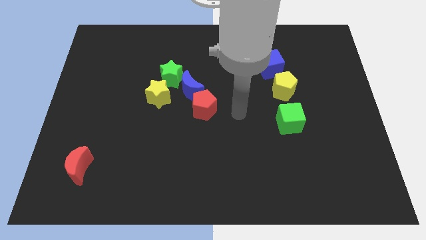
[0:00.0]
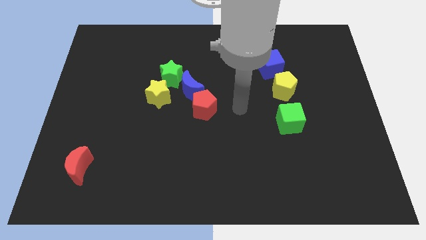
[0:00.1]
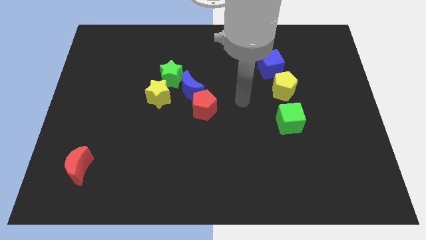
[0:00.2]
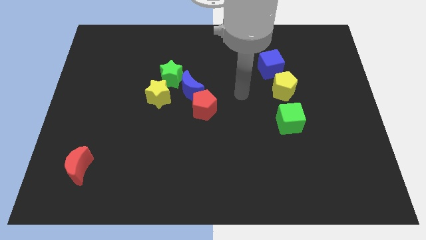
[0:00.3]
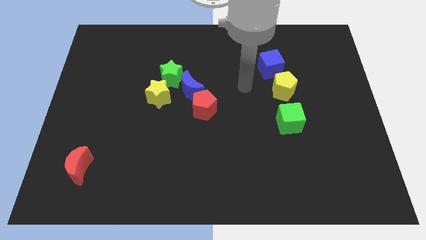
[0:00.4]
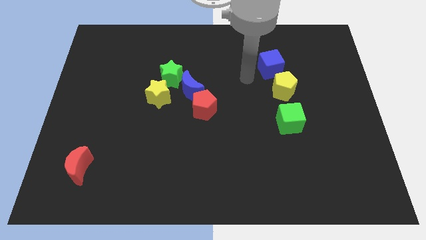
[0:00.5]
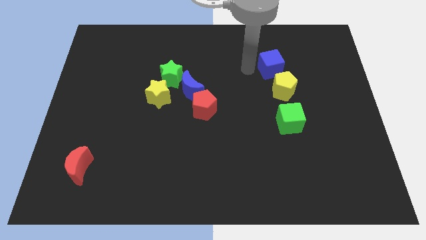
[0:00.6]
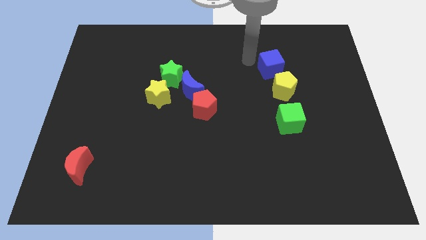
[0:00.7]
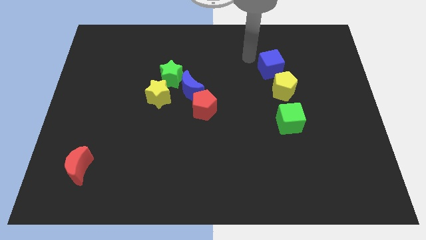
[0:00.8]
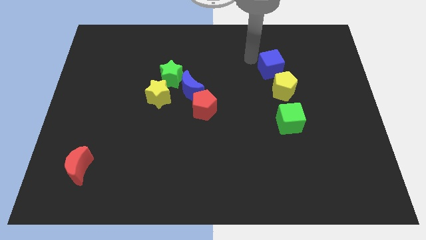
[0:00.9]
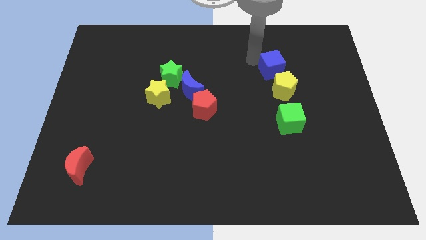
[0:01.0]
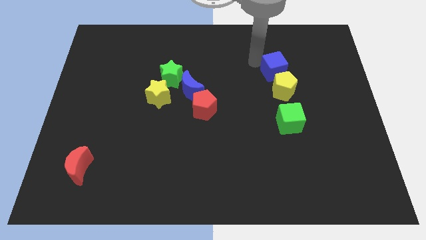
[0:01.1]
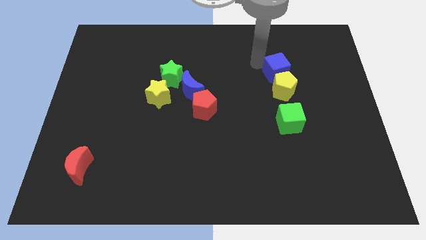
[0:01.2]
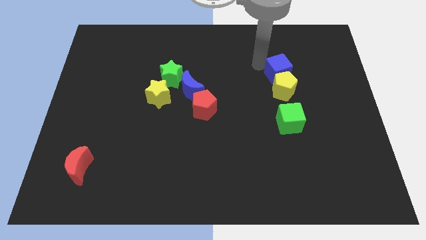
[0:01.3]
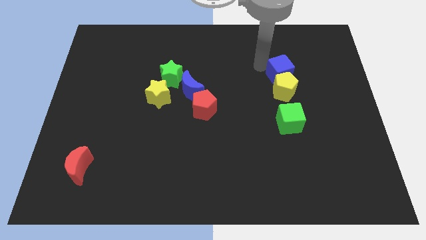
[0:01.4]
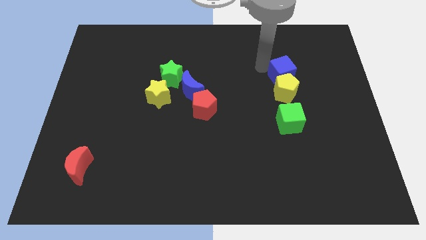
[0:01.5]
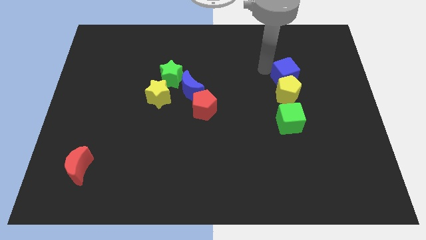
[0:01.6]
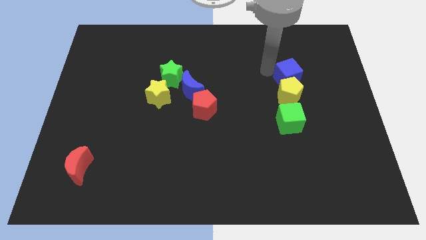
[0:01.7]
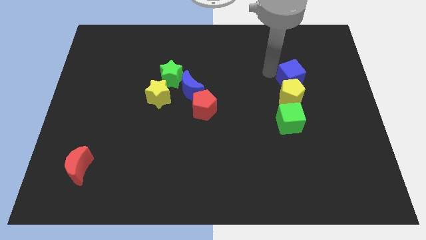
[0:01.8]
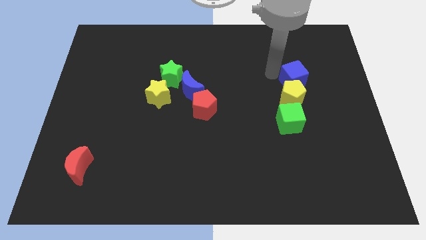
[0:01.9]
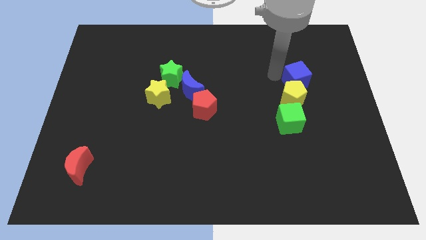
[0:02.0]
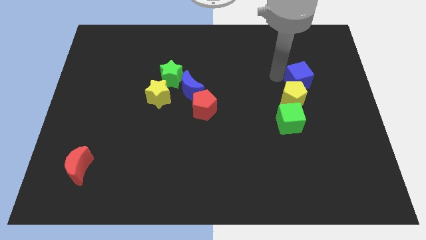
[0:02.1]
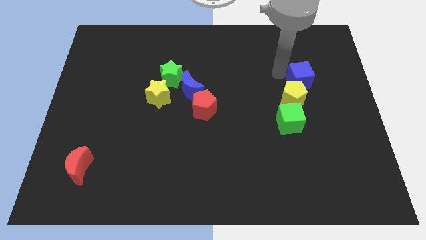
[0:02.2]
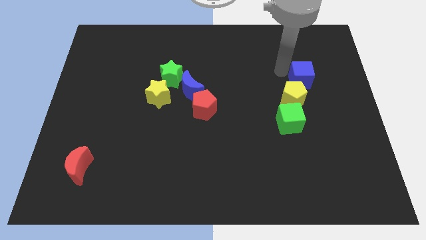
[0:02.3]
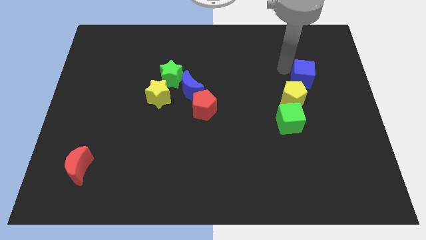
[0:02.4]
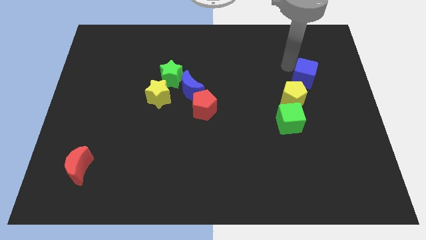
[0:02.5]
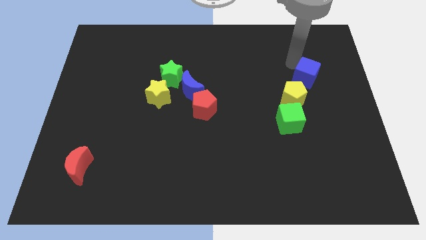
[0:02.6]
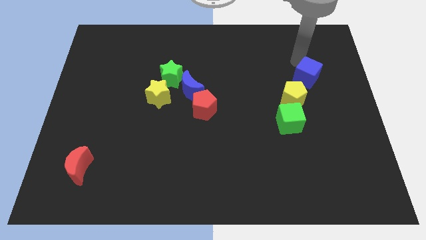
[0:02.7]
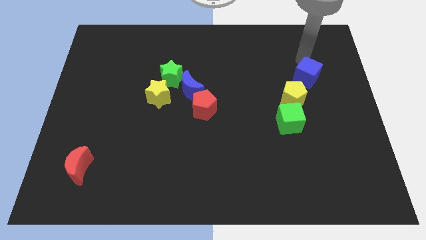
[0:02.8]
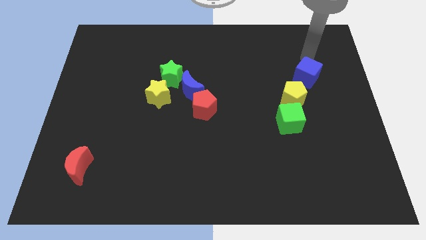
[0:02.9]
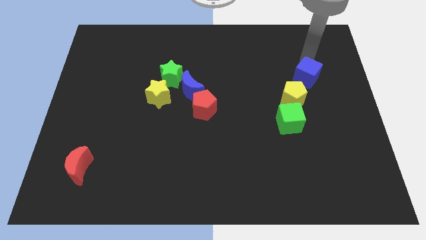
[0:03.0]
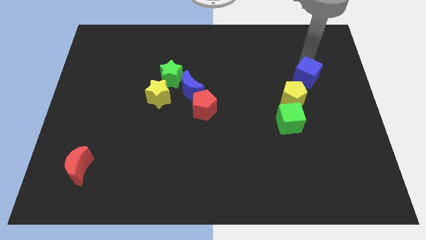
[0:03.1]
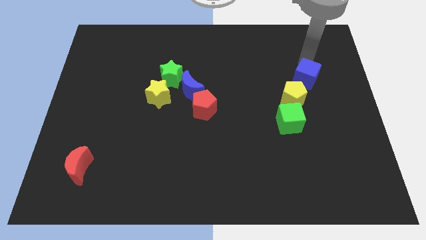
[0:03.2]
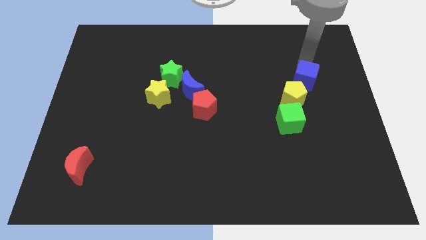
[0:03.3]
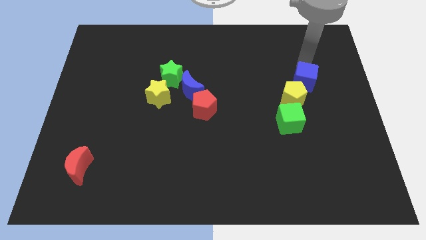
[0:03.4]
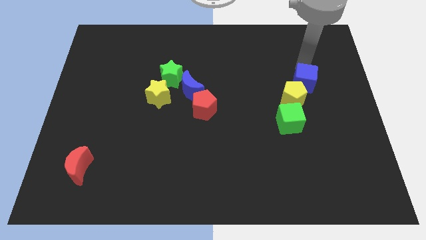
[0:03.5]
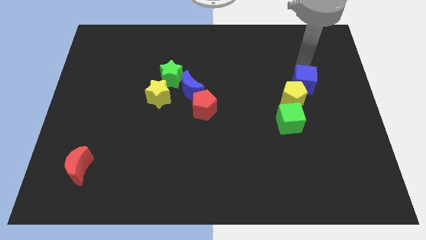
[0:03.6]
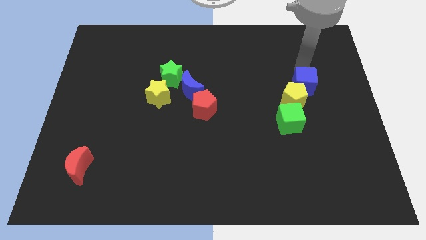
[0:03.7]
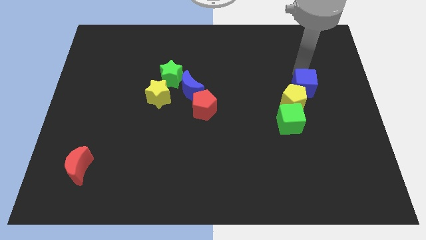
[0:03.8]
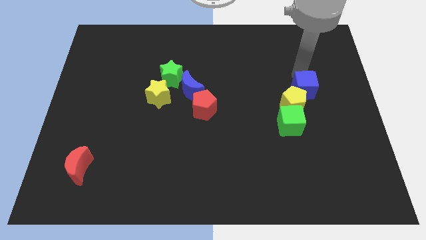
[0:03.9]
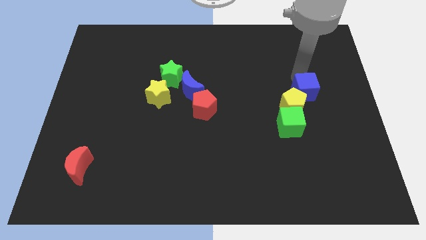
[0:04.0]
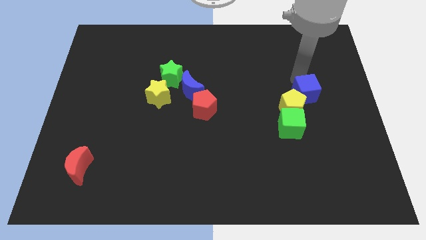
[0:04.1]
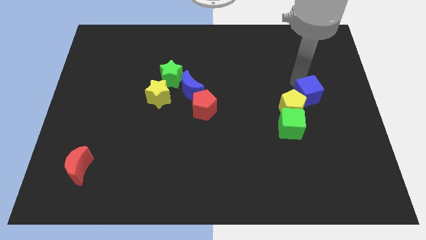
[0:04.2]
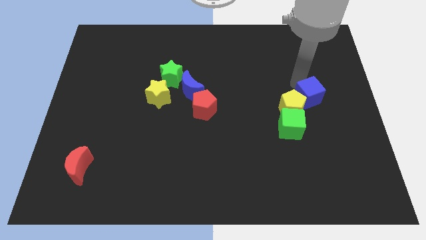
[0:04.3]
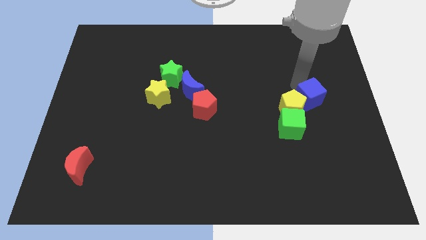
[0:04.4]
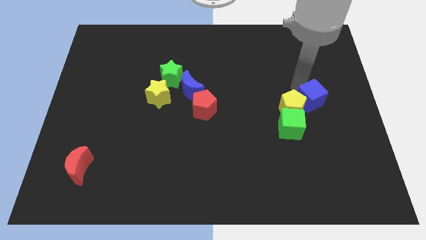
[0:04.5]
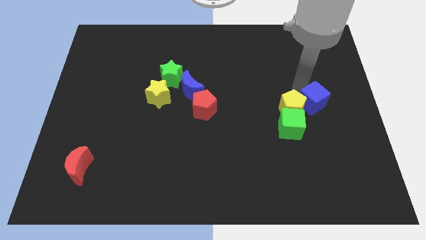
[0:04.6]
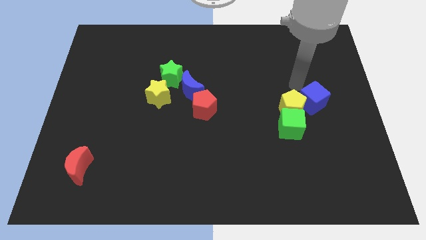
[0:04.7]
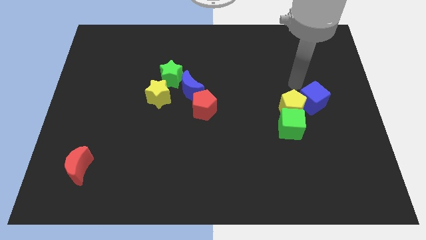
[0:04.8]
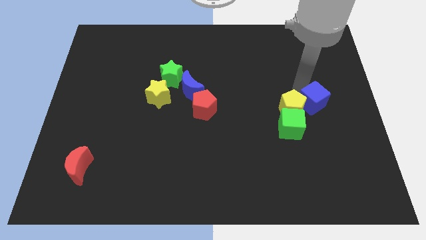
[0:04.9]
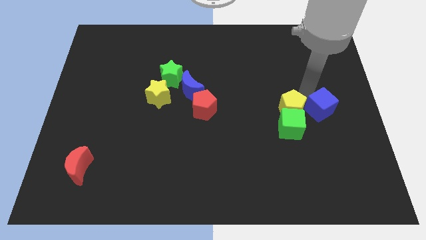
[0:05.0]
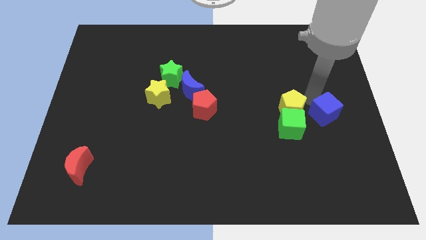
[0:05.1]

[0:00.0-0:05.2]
move the blue cube right of the green cube

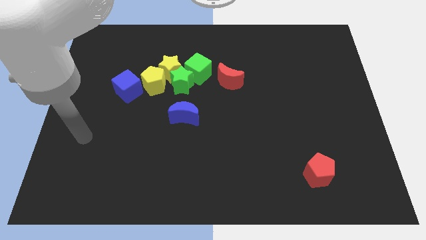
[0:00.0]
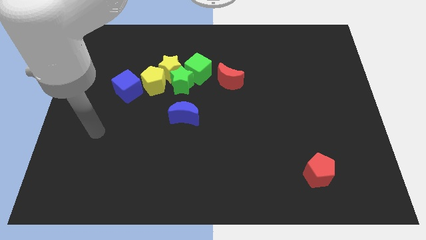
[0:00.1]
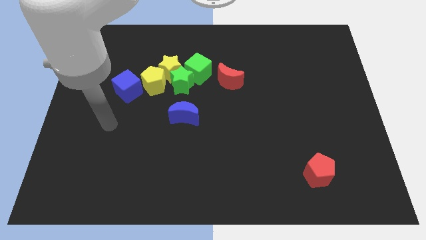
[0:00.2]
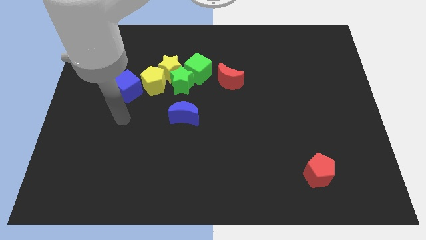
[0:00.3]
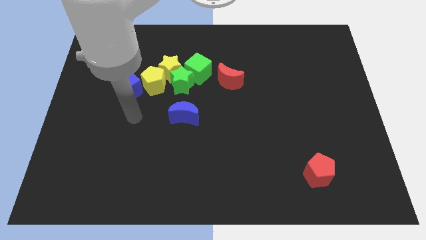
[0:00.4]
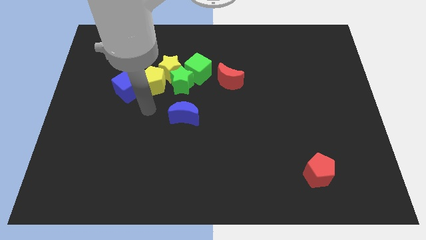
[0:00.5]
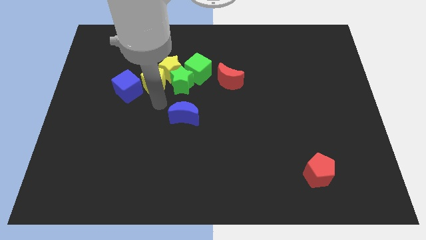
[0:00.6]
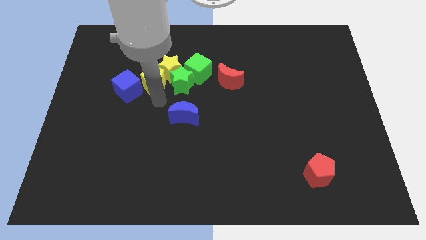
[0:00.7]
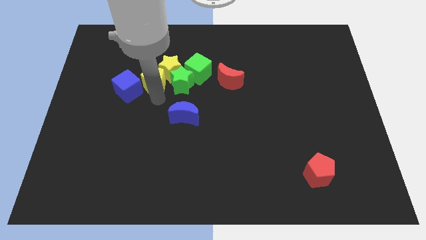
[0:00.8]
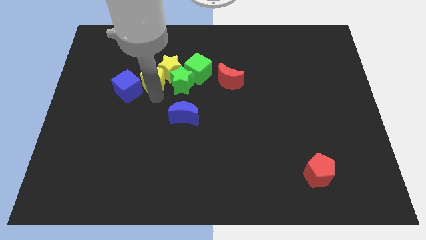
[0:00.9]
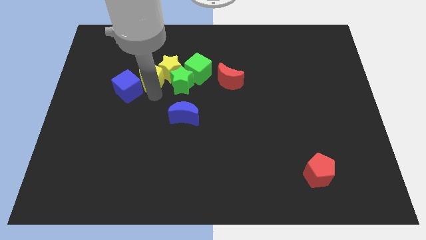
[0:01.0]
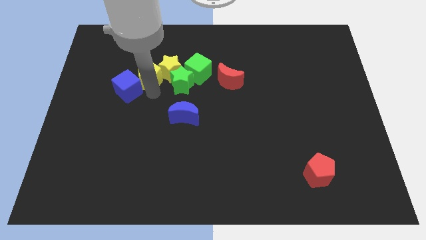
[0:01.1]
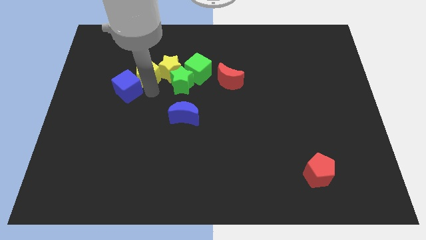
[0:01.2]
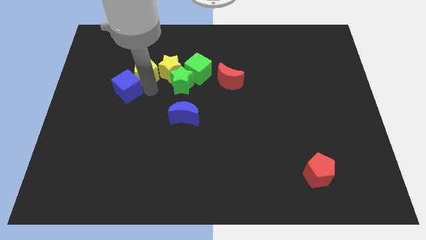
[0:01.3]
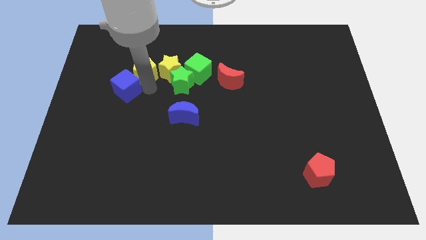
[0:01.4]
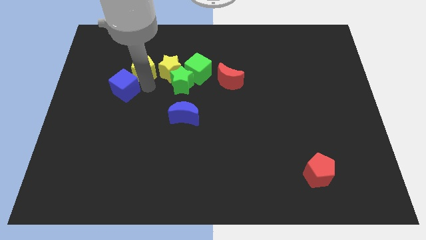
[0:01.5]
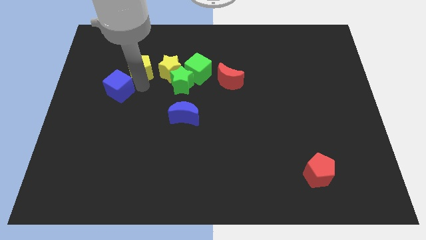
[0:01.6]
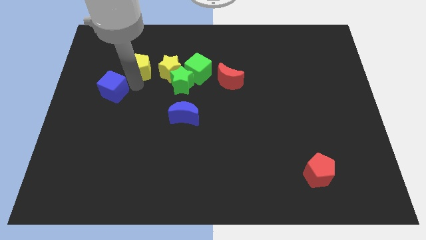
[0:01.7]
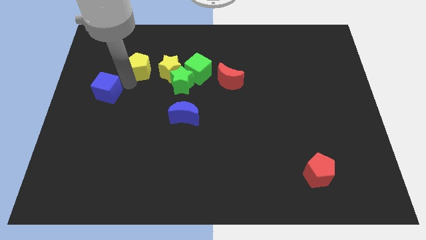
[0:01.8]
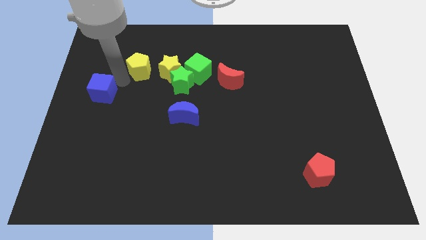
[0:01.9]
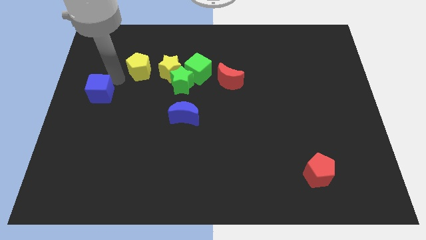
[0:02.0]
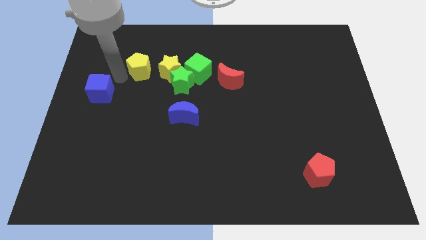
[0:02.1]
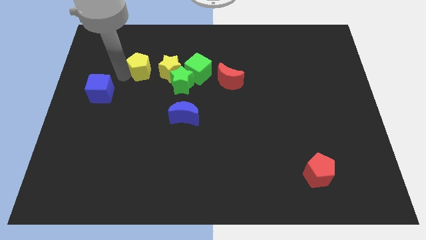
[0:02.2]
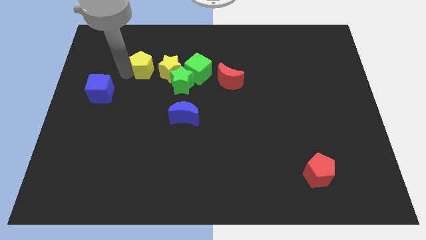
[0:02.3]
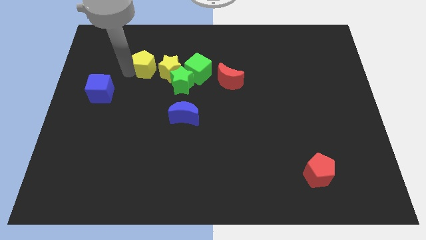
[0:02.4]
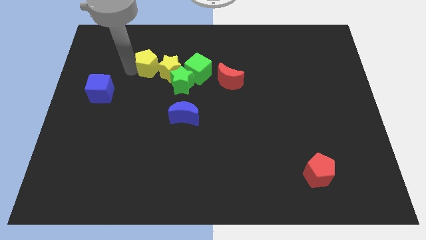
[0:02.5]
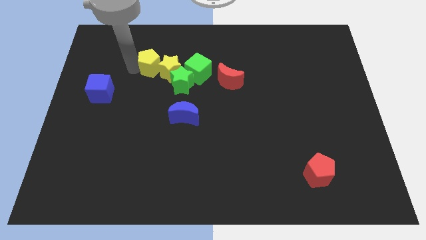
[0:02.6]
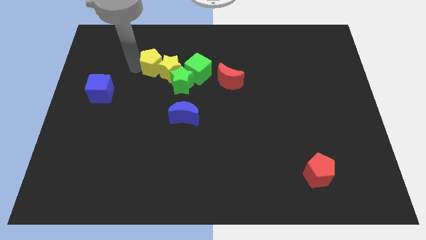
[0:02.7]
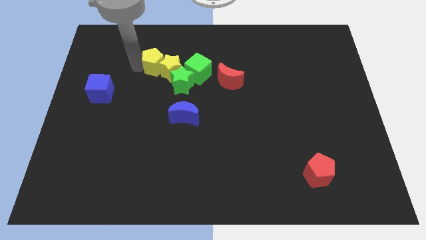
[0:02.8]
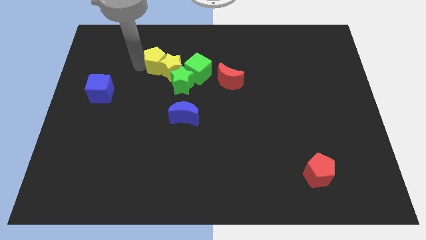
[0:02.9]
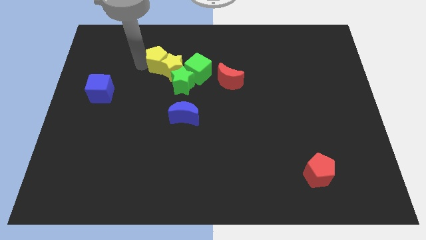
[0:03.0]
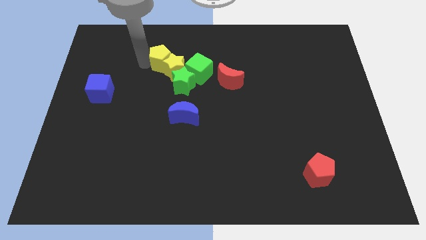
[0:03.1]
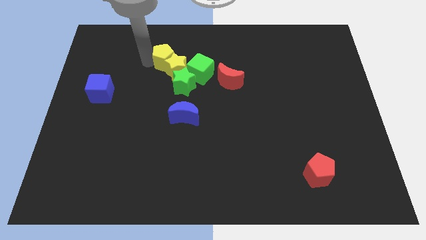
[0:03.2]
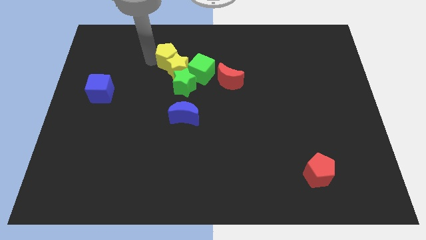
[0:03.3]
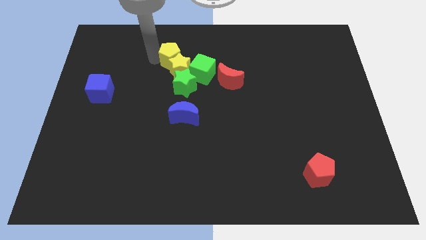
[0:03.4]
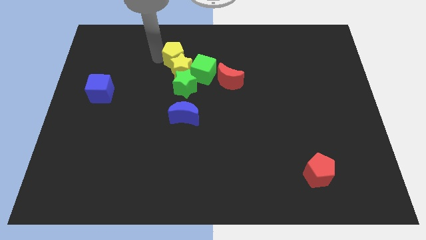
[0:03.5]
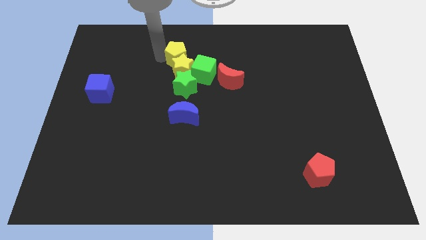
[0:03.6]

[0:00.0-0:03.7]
put the yellow pentagon to the top right side of the yellow star
